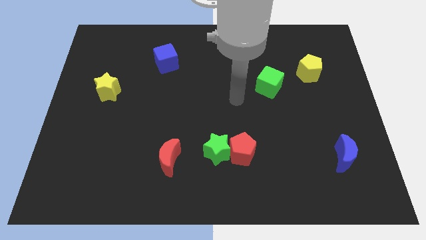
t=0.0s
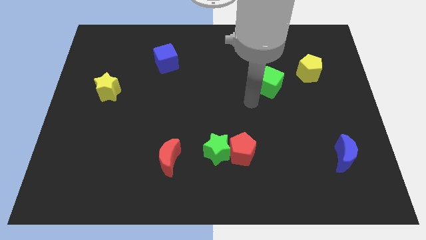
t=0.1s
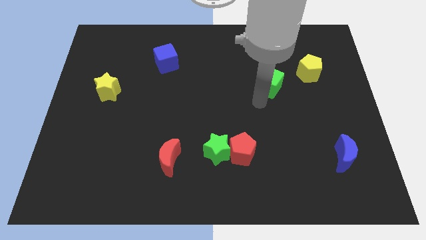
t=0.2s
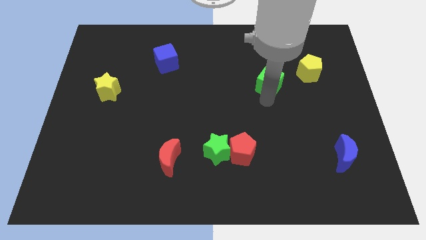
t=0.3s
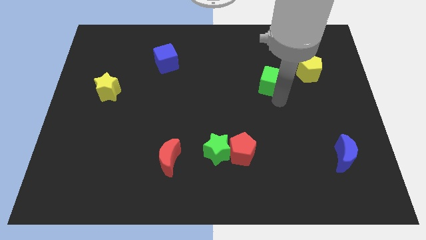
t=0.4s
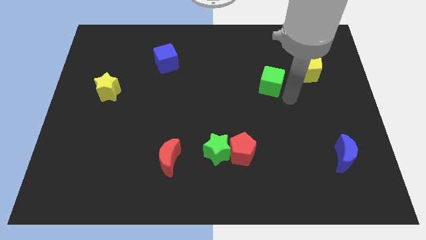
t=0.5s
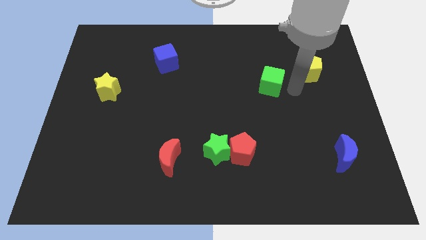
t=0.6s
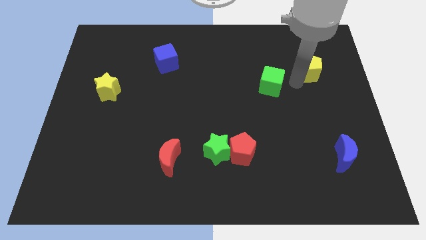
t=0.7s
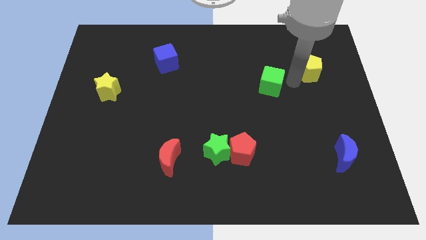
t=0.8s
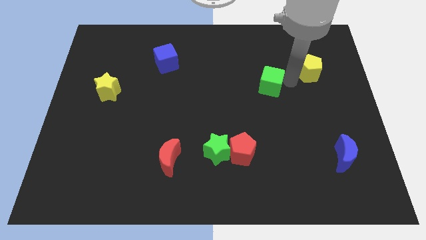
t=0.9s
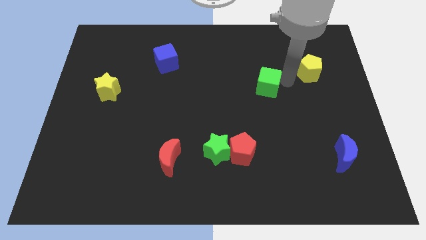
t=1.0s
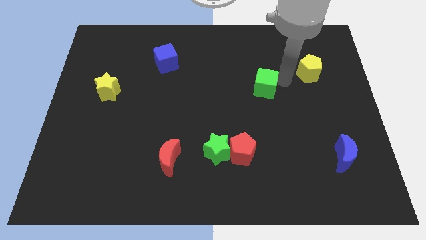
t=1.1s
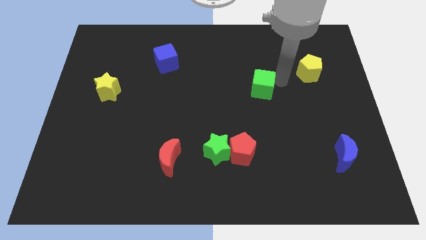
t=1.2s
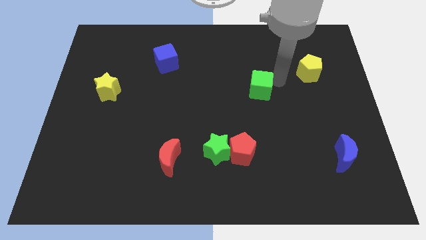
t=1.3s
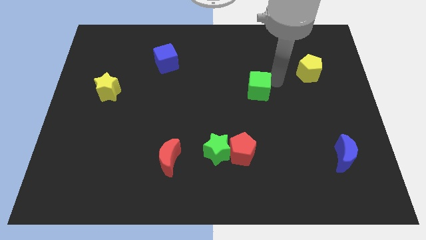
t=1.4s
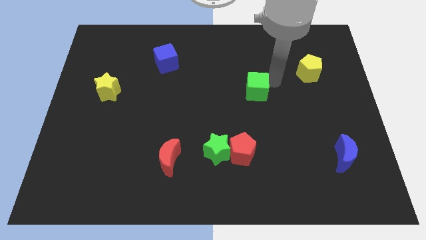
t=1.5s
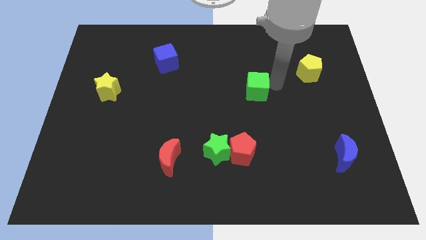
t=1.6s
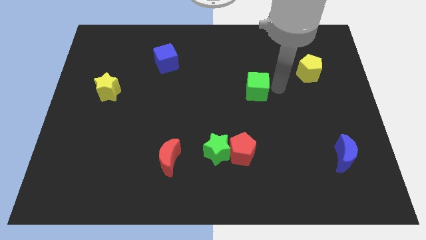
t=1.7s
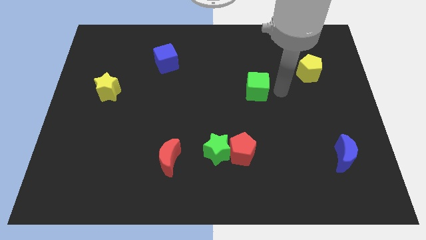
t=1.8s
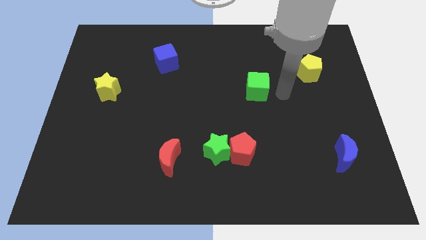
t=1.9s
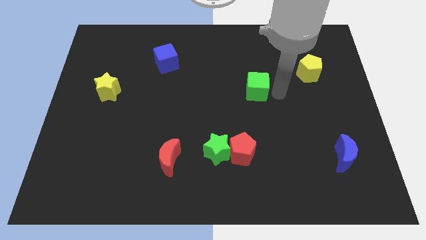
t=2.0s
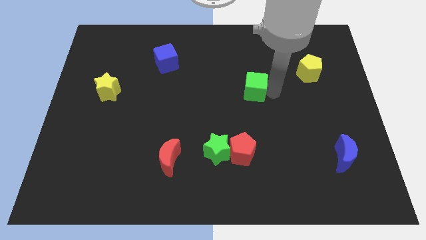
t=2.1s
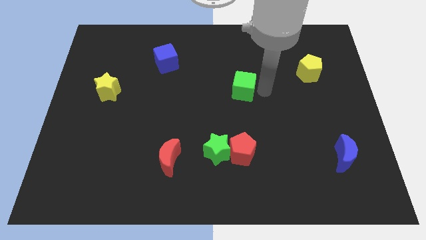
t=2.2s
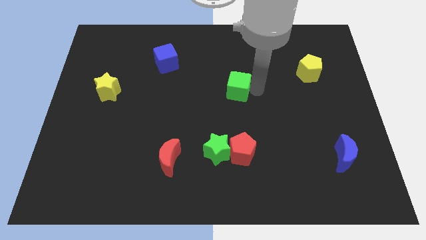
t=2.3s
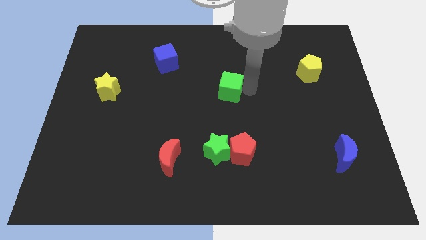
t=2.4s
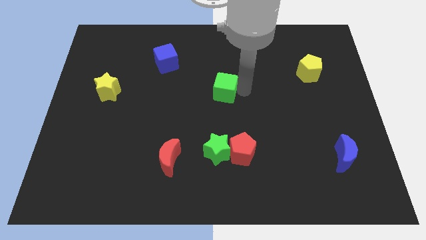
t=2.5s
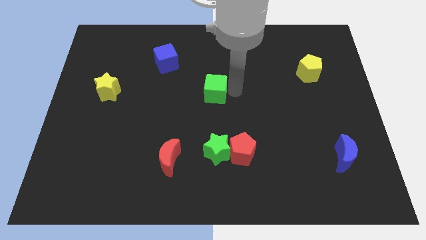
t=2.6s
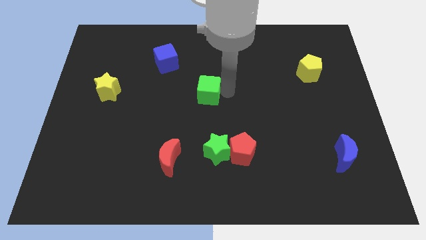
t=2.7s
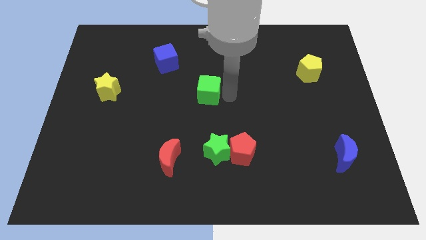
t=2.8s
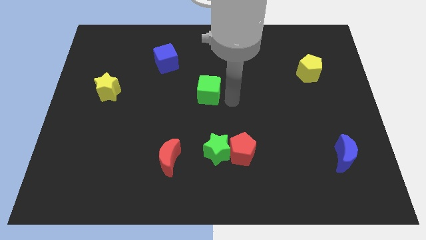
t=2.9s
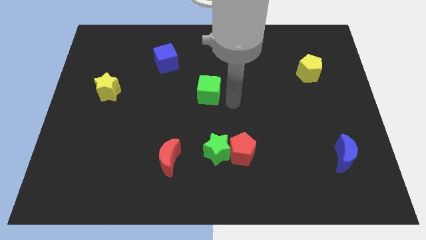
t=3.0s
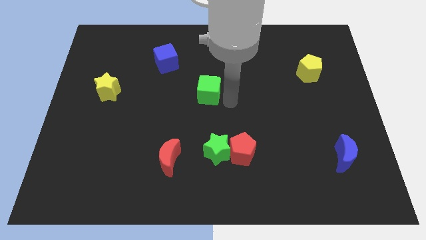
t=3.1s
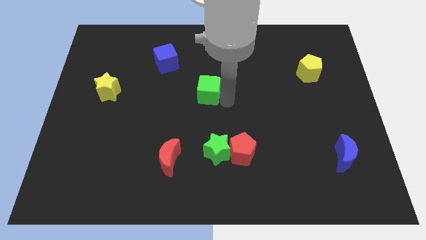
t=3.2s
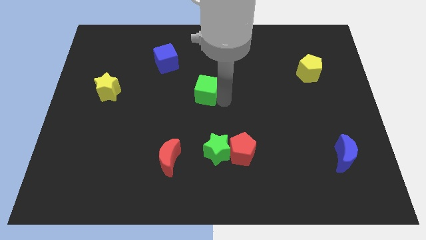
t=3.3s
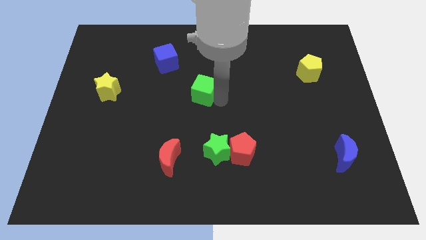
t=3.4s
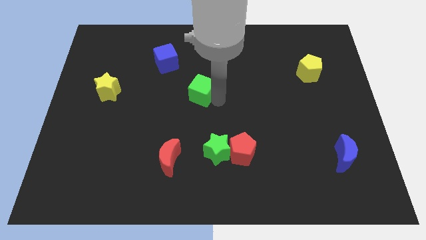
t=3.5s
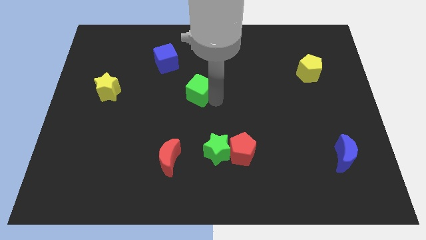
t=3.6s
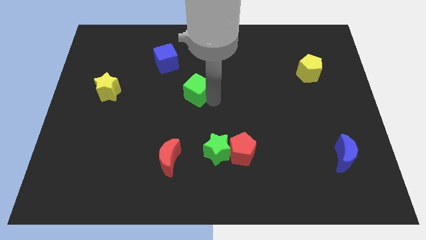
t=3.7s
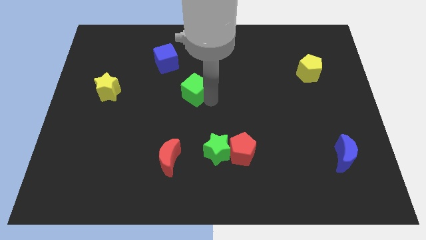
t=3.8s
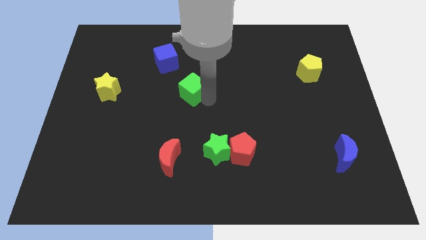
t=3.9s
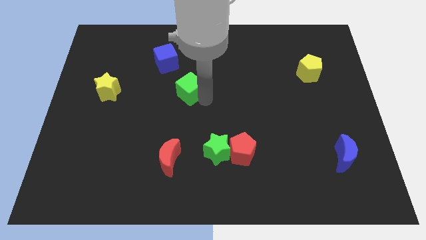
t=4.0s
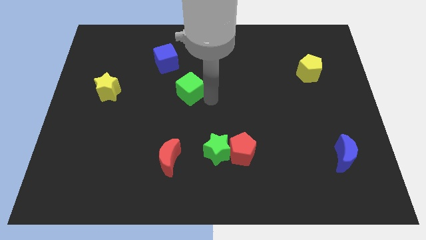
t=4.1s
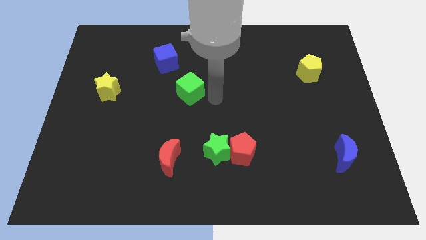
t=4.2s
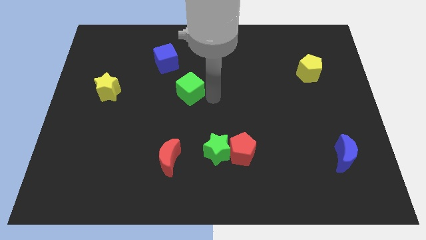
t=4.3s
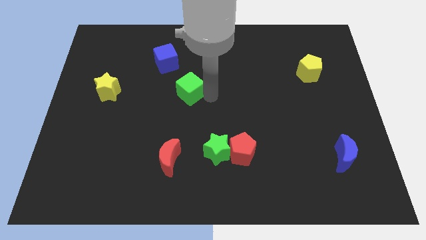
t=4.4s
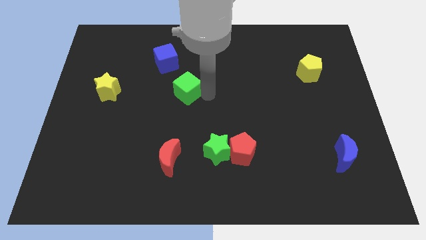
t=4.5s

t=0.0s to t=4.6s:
push the green cube left

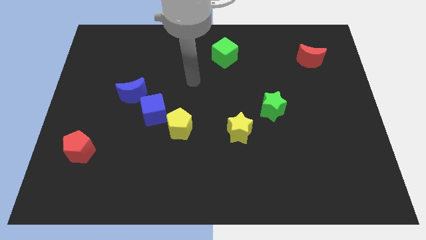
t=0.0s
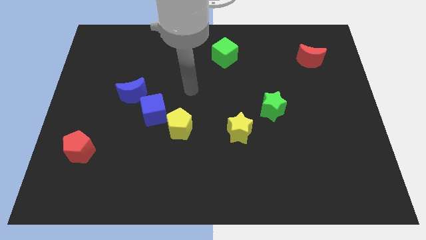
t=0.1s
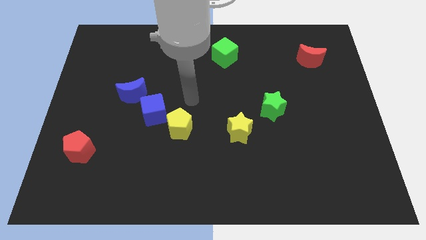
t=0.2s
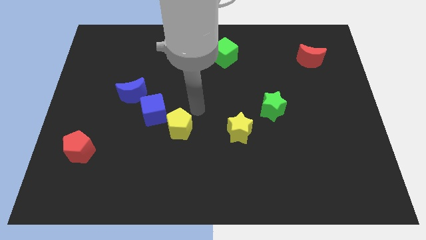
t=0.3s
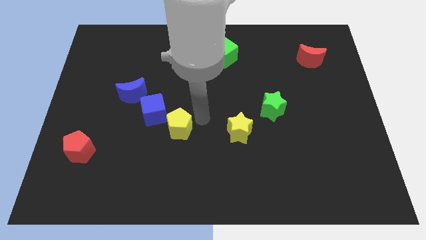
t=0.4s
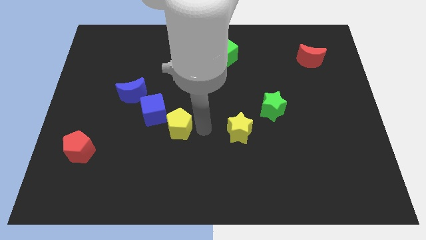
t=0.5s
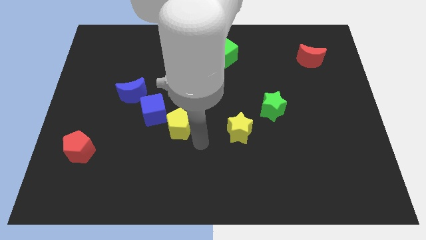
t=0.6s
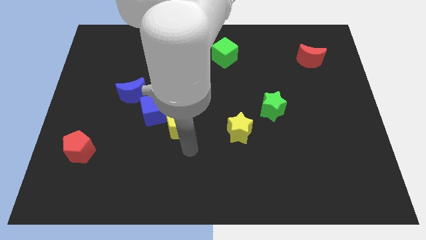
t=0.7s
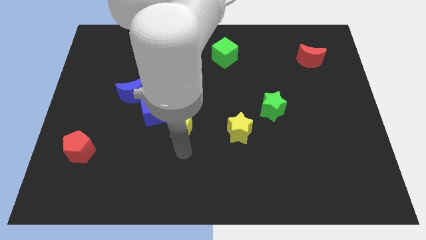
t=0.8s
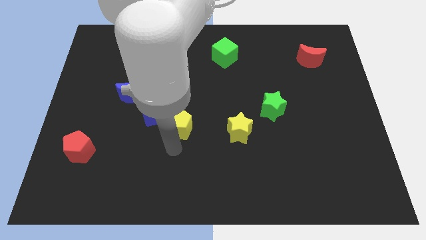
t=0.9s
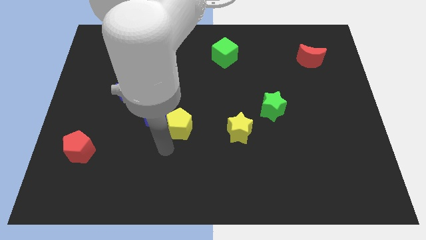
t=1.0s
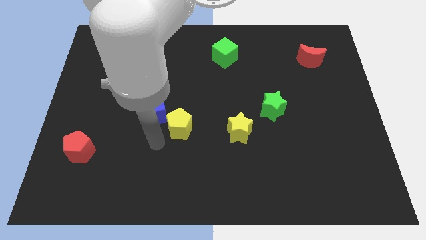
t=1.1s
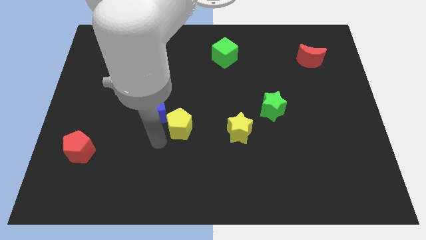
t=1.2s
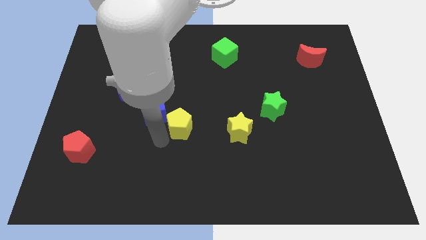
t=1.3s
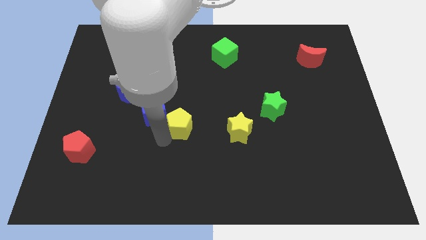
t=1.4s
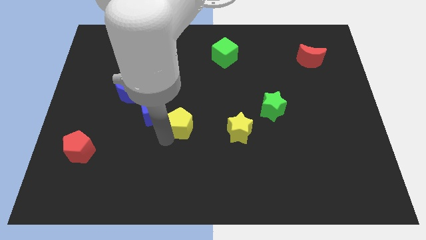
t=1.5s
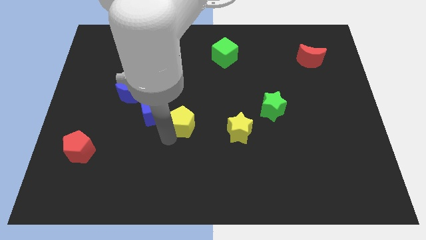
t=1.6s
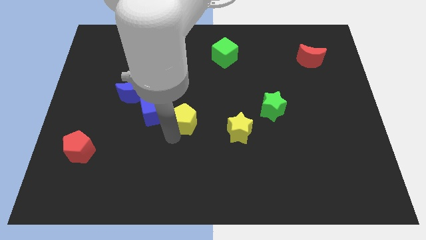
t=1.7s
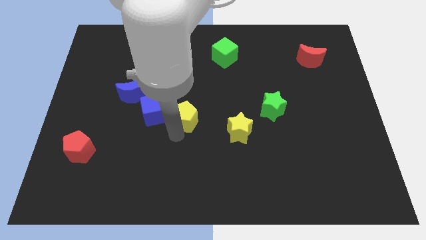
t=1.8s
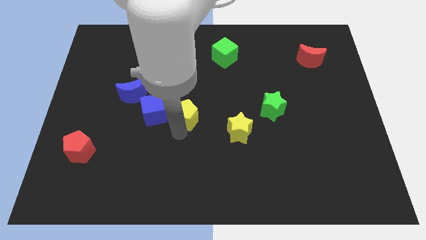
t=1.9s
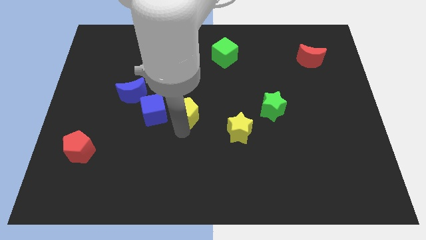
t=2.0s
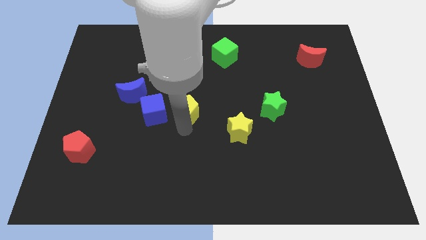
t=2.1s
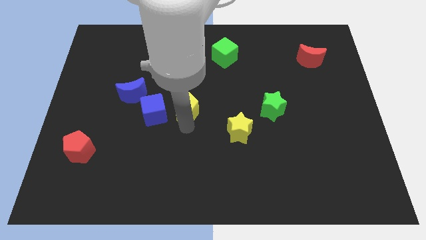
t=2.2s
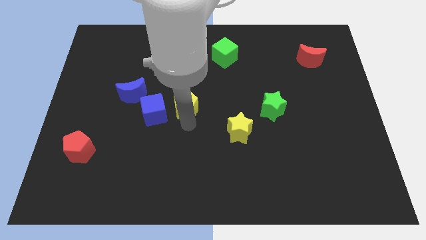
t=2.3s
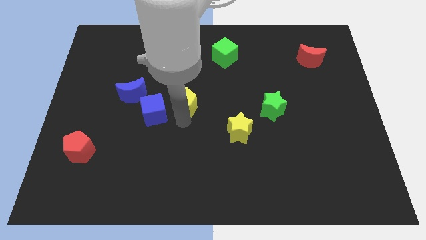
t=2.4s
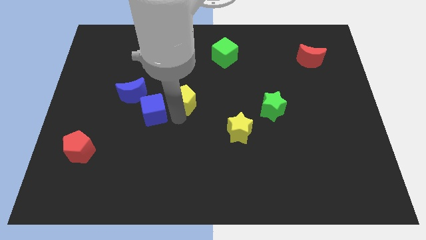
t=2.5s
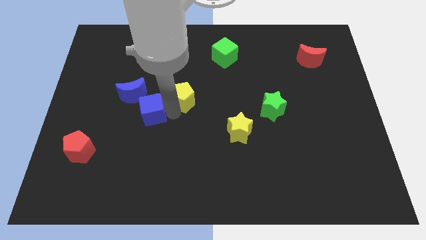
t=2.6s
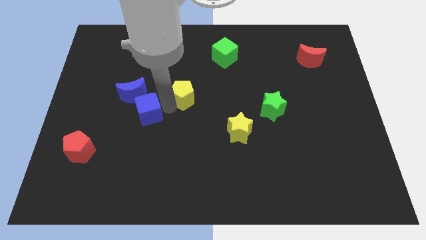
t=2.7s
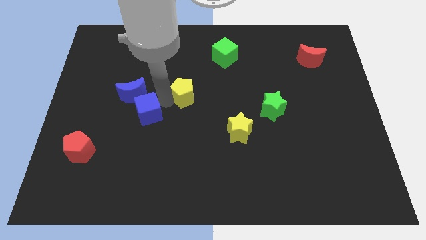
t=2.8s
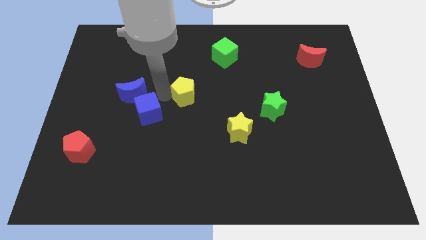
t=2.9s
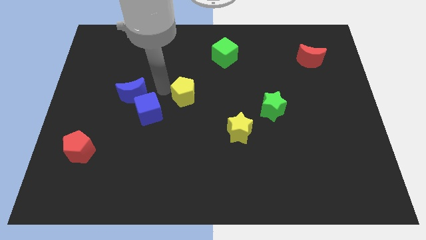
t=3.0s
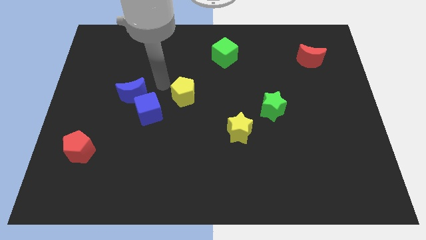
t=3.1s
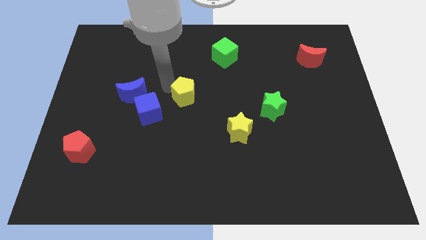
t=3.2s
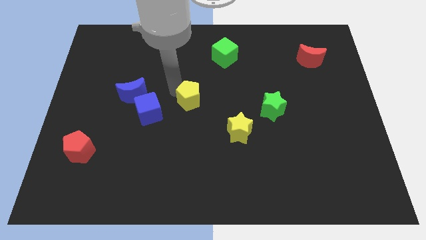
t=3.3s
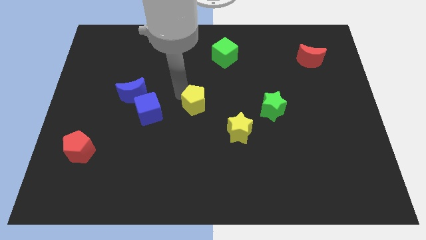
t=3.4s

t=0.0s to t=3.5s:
move the yellow pentagon upwards and then to the right somewhat
